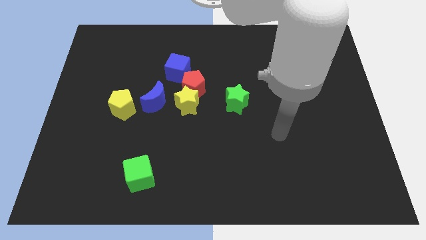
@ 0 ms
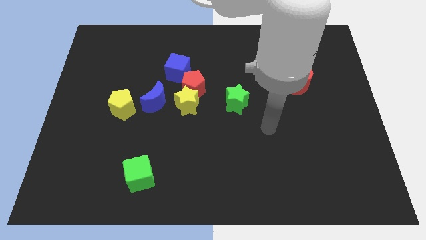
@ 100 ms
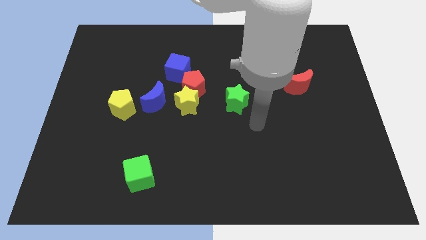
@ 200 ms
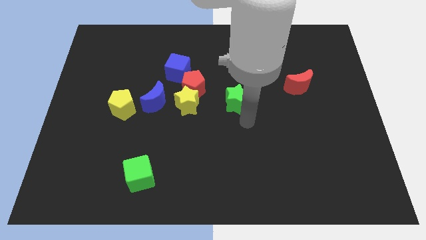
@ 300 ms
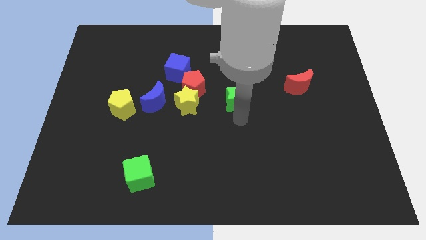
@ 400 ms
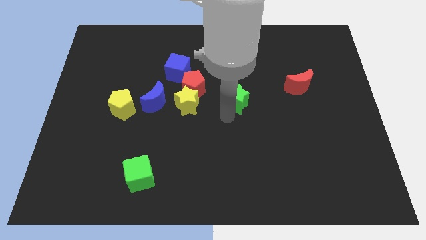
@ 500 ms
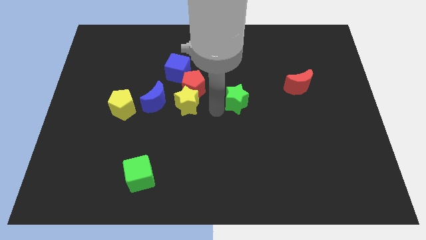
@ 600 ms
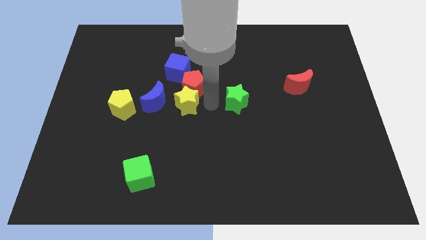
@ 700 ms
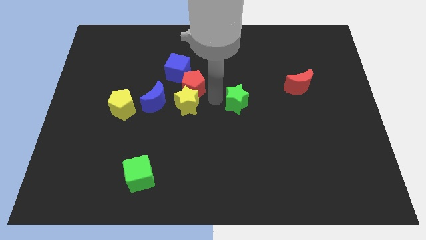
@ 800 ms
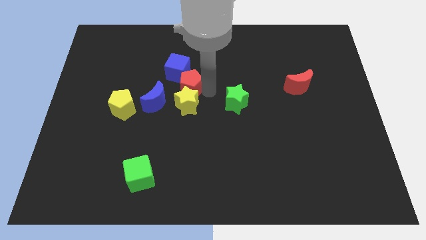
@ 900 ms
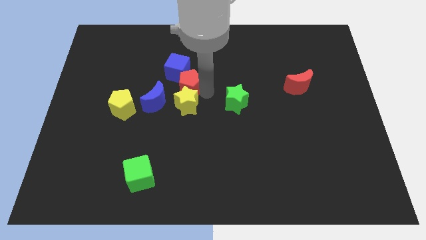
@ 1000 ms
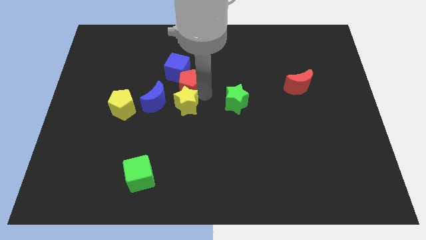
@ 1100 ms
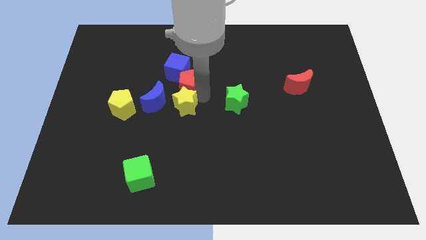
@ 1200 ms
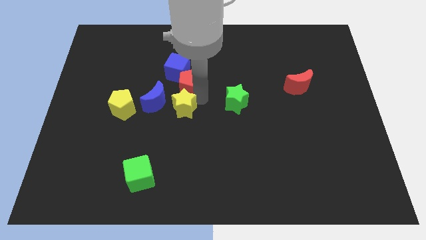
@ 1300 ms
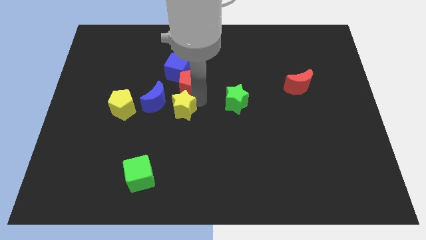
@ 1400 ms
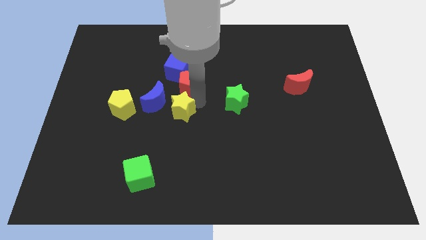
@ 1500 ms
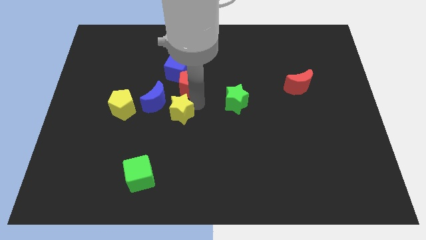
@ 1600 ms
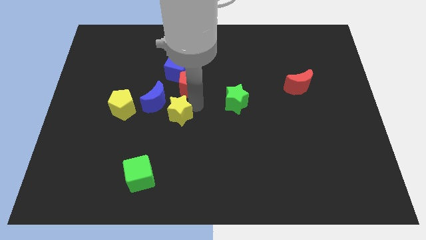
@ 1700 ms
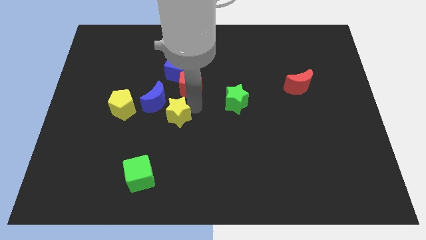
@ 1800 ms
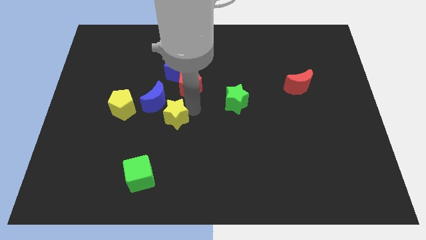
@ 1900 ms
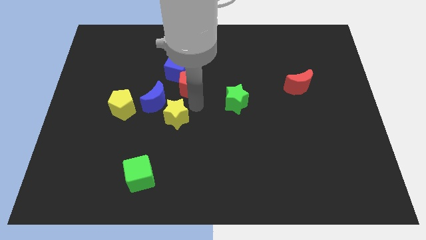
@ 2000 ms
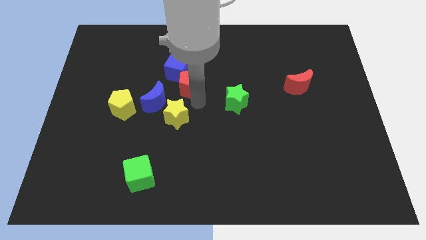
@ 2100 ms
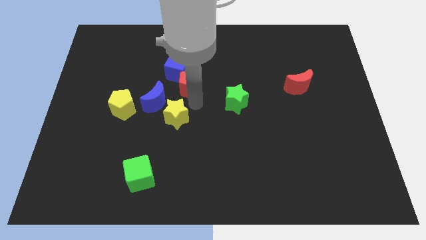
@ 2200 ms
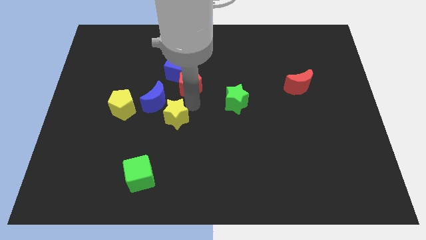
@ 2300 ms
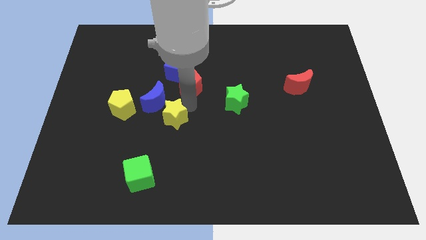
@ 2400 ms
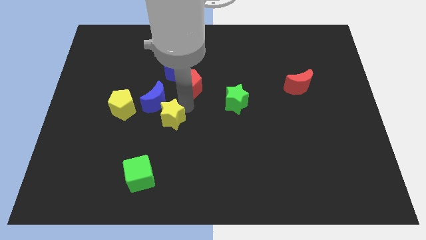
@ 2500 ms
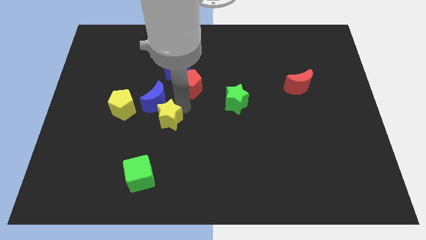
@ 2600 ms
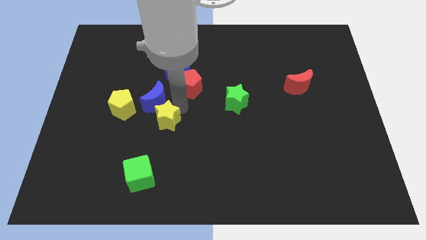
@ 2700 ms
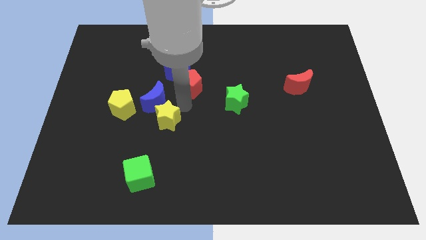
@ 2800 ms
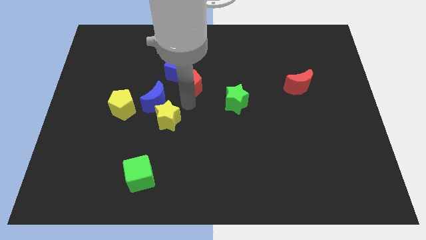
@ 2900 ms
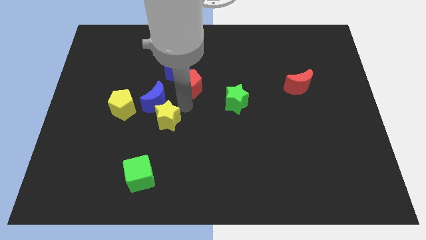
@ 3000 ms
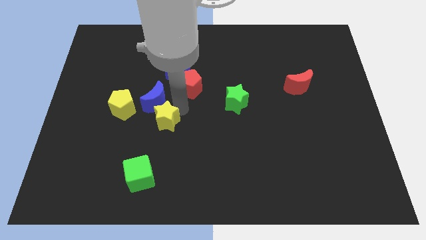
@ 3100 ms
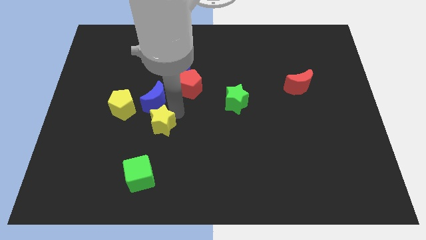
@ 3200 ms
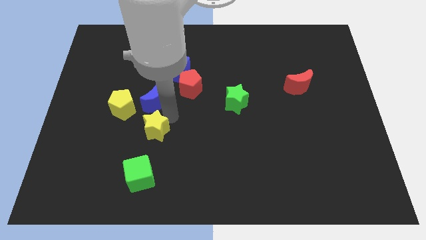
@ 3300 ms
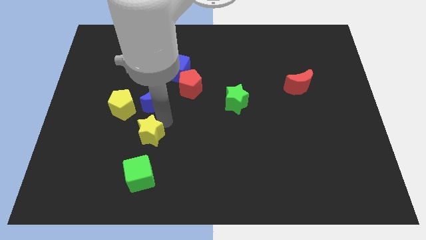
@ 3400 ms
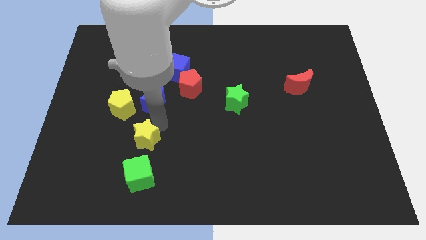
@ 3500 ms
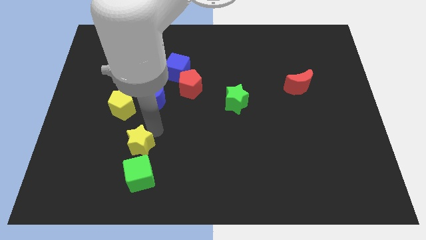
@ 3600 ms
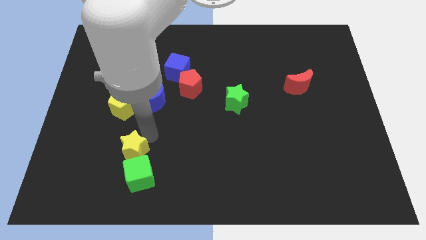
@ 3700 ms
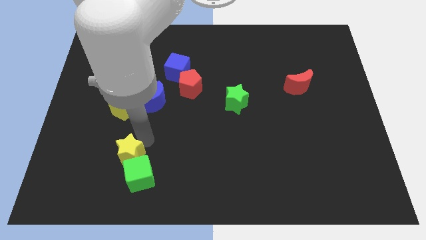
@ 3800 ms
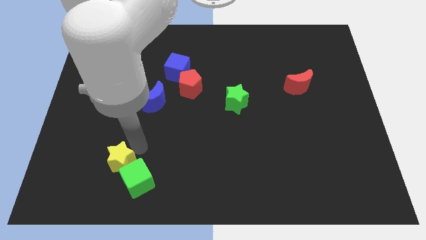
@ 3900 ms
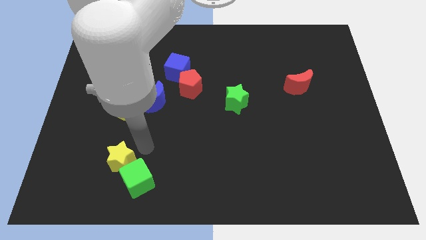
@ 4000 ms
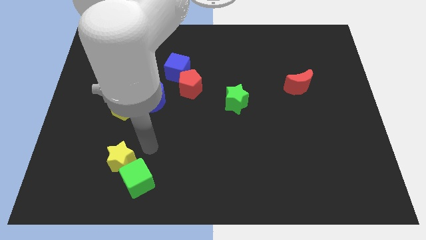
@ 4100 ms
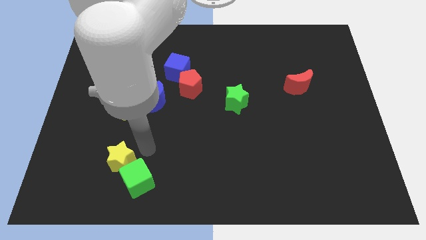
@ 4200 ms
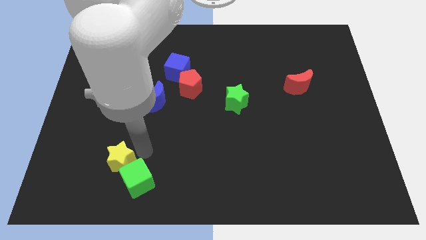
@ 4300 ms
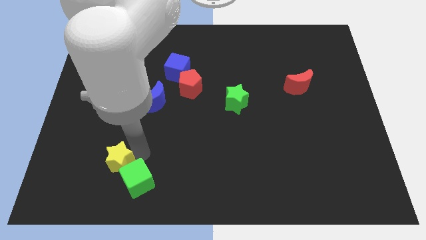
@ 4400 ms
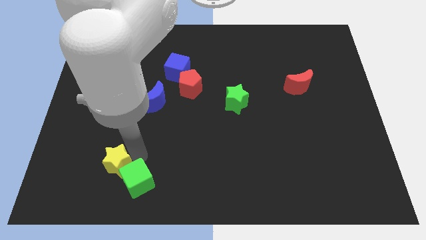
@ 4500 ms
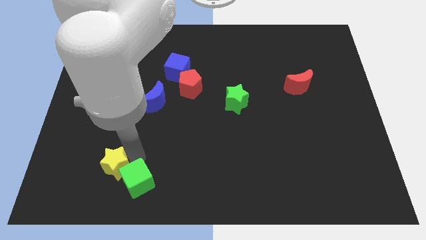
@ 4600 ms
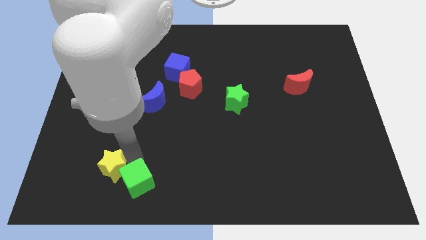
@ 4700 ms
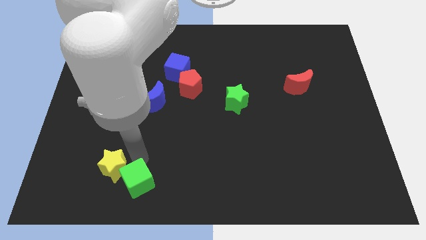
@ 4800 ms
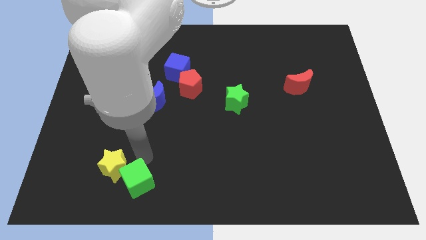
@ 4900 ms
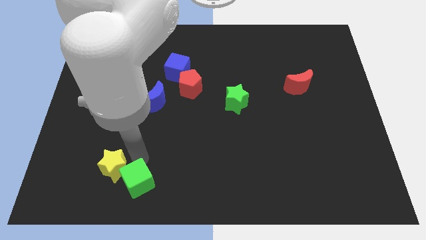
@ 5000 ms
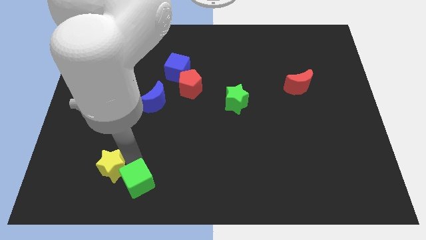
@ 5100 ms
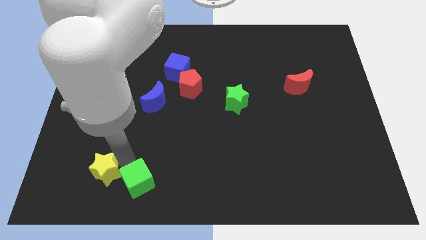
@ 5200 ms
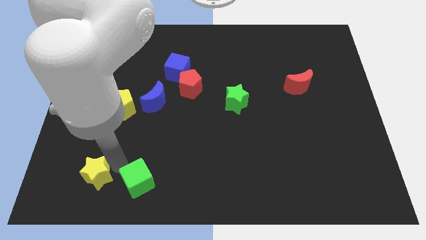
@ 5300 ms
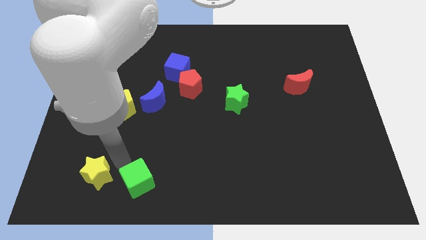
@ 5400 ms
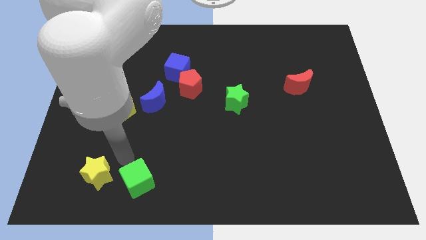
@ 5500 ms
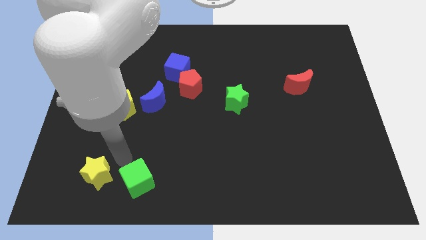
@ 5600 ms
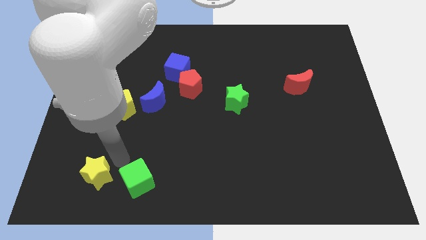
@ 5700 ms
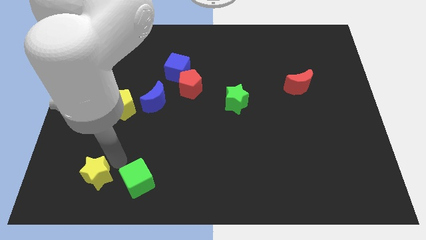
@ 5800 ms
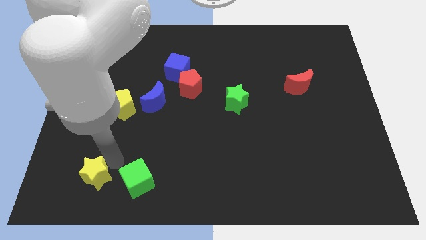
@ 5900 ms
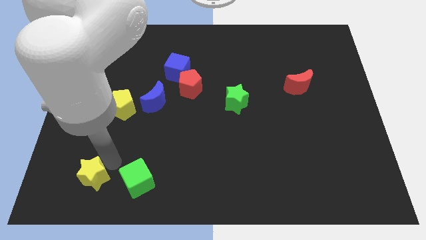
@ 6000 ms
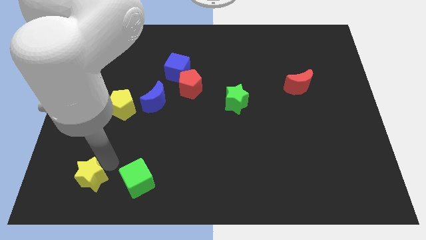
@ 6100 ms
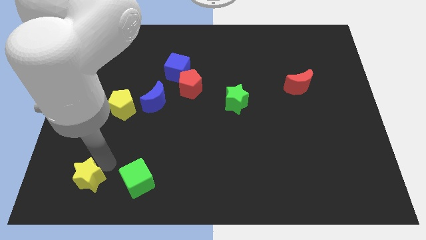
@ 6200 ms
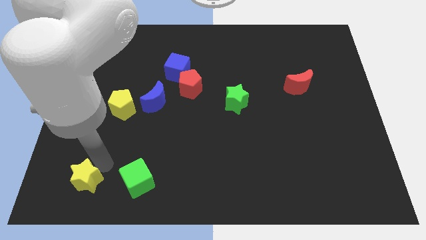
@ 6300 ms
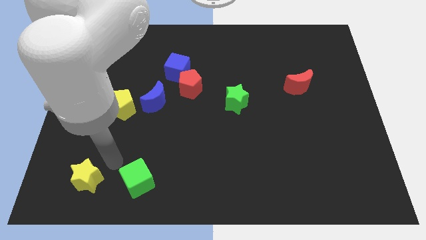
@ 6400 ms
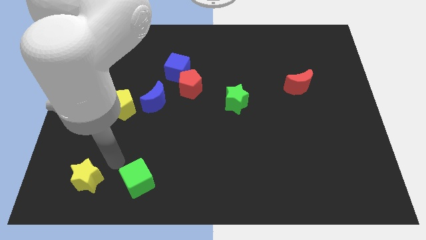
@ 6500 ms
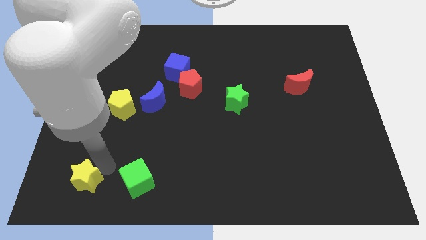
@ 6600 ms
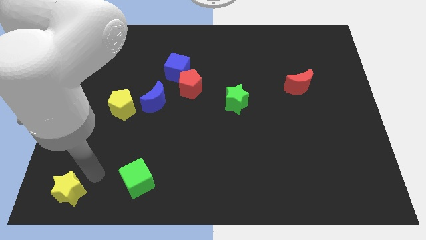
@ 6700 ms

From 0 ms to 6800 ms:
push the yellow star to the bottom left
